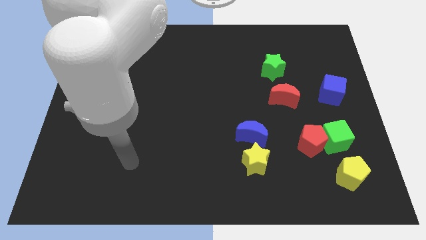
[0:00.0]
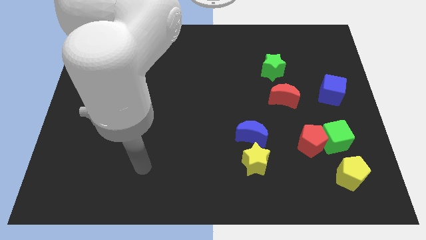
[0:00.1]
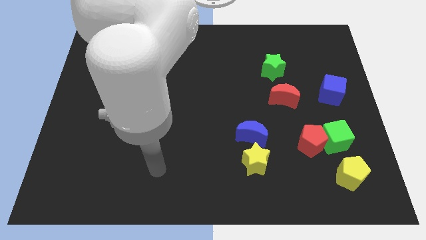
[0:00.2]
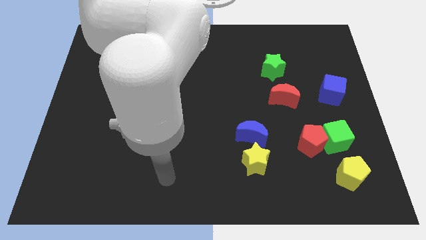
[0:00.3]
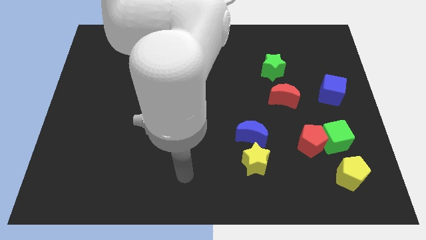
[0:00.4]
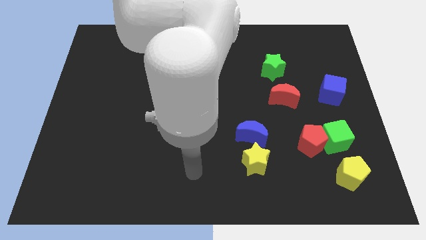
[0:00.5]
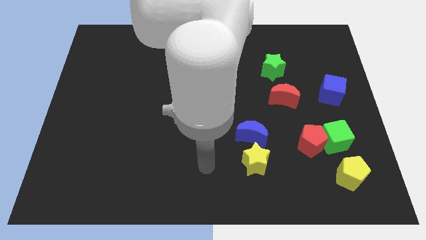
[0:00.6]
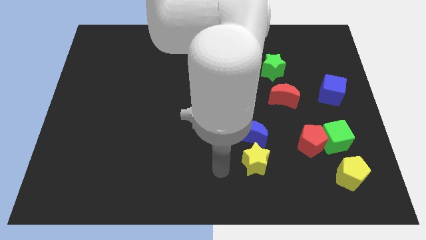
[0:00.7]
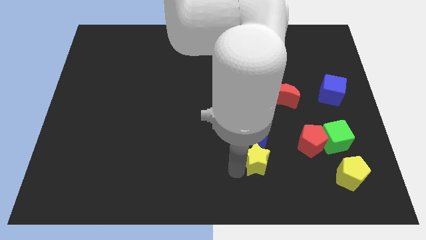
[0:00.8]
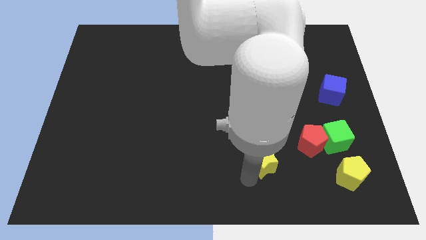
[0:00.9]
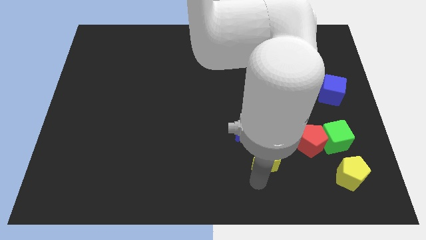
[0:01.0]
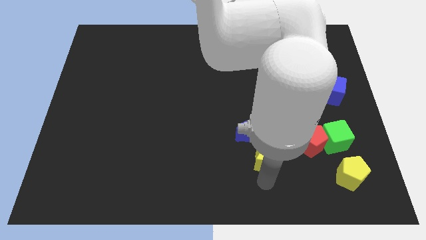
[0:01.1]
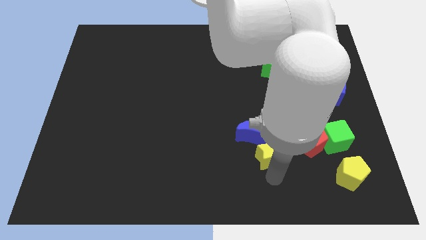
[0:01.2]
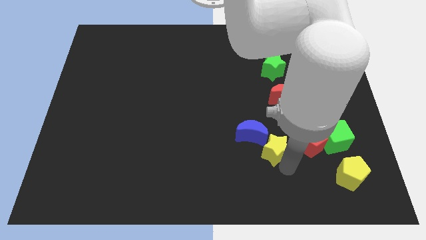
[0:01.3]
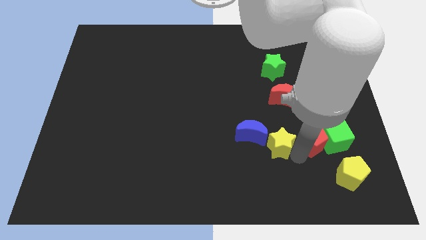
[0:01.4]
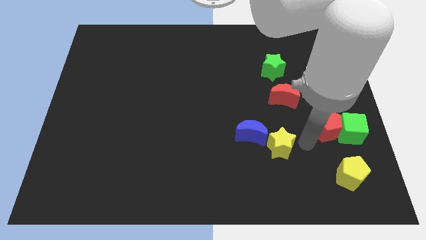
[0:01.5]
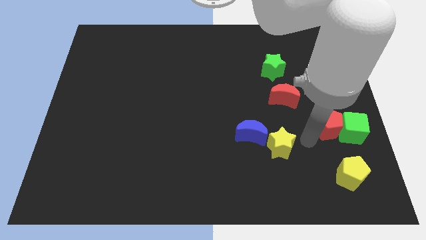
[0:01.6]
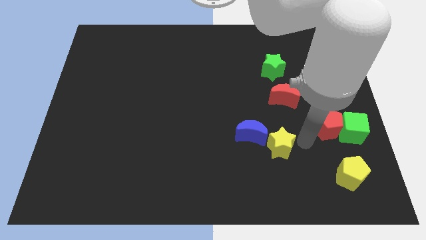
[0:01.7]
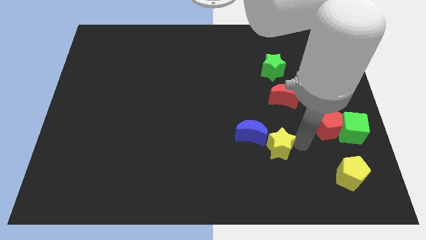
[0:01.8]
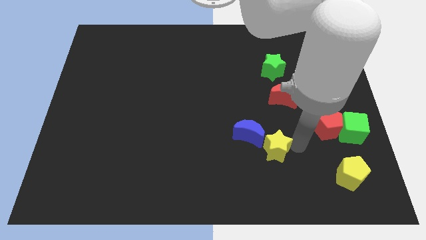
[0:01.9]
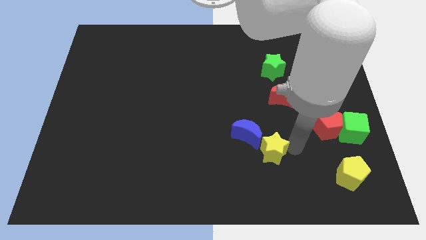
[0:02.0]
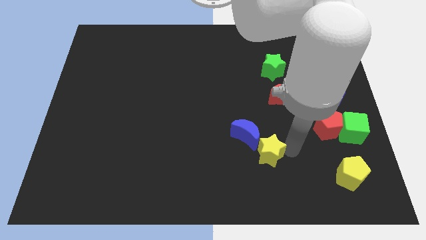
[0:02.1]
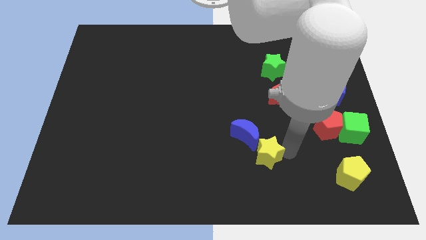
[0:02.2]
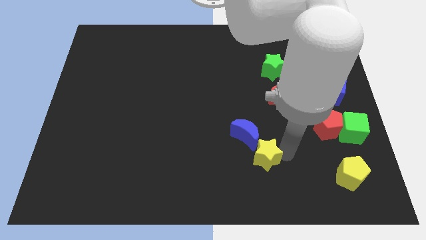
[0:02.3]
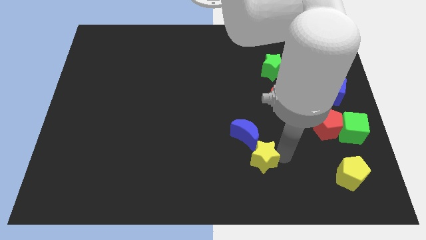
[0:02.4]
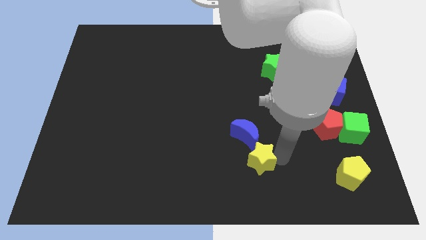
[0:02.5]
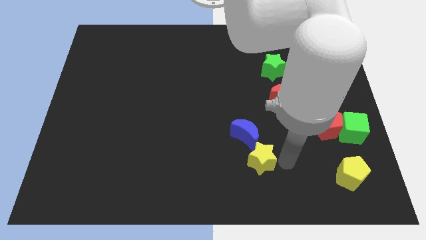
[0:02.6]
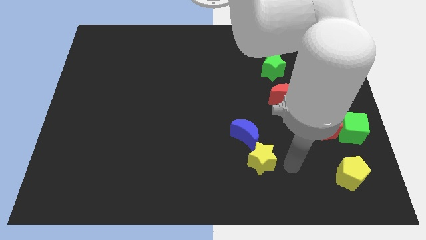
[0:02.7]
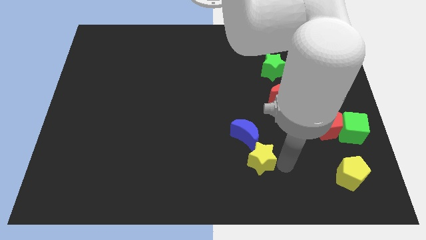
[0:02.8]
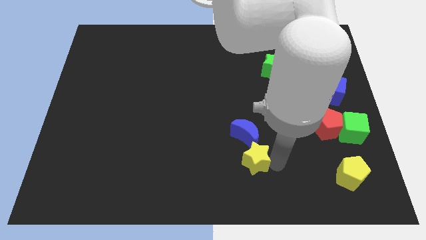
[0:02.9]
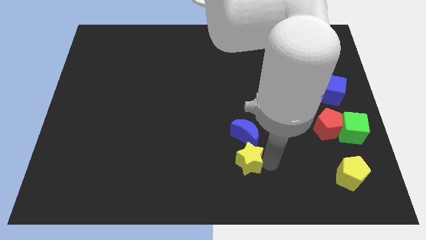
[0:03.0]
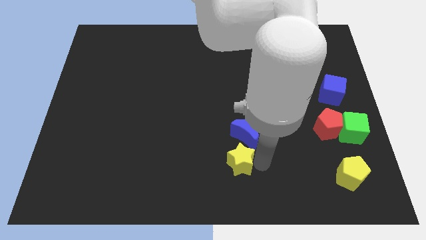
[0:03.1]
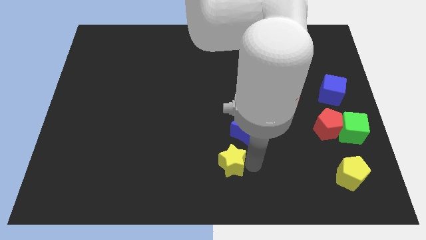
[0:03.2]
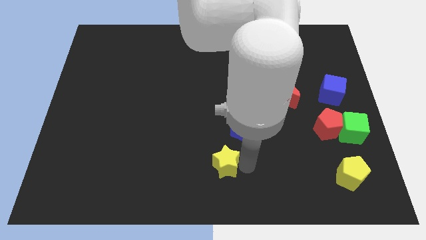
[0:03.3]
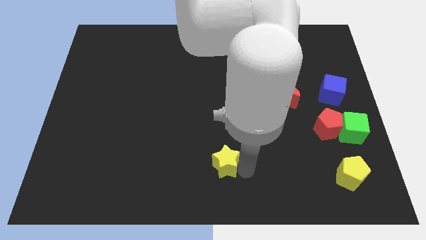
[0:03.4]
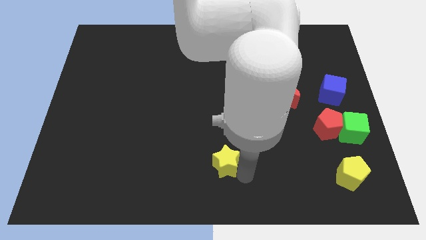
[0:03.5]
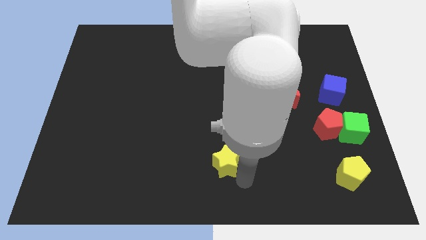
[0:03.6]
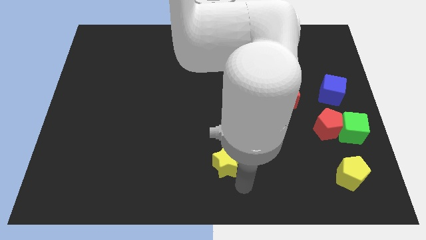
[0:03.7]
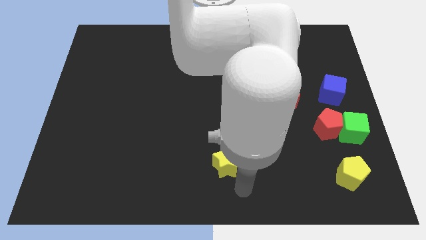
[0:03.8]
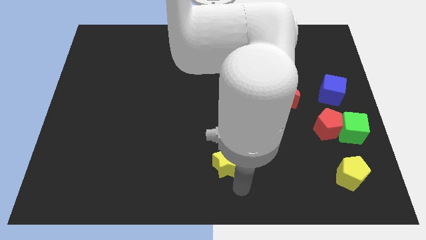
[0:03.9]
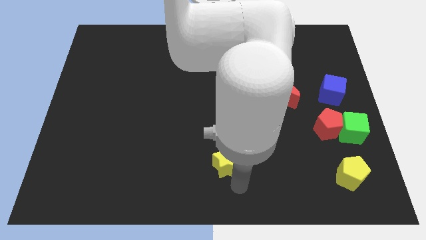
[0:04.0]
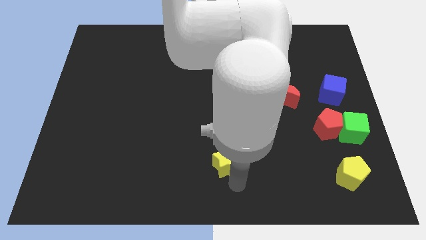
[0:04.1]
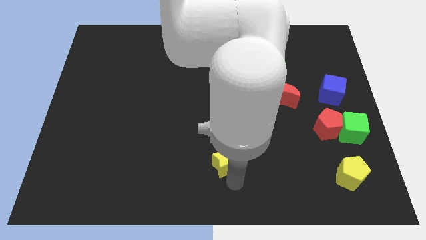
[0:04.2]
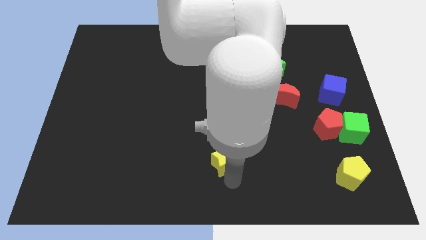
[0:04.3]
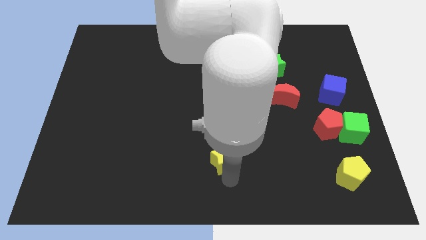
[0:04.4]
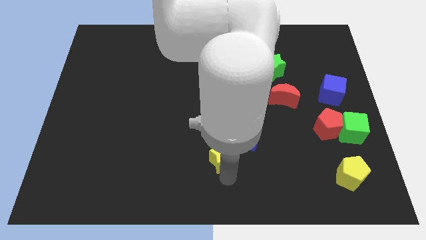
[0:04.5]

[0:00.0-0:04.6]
slide the yellow star a little to the left

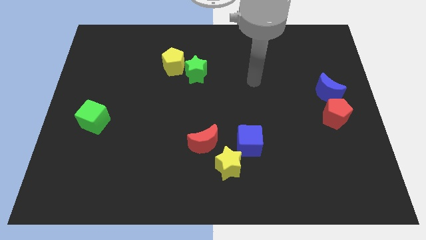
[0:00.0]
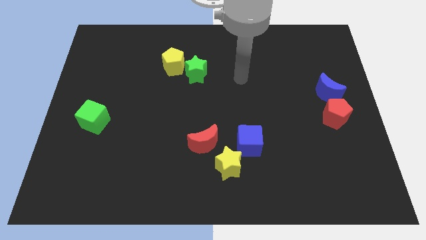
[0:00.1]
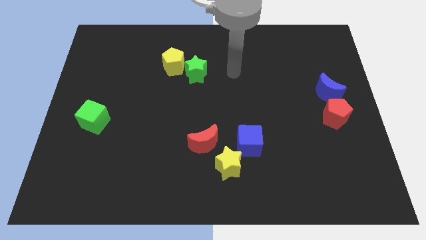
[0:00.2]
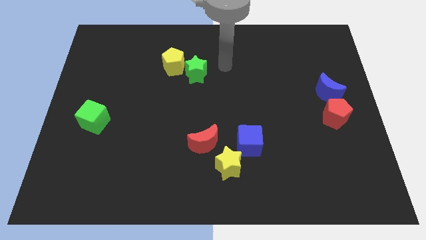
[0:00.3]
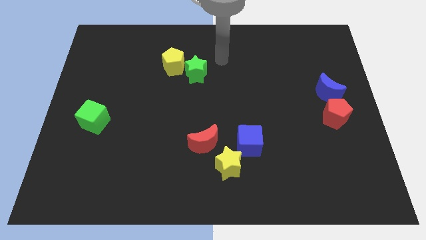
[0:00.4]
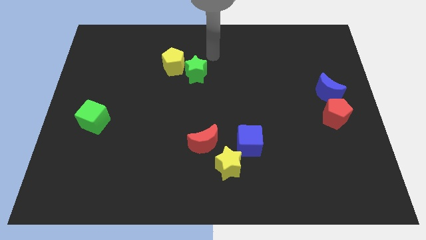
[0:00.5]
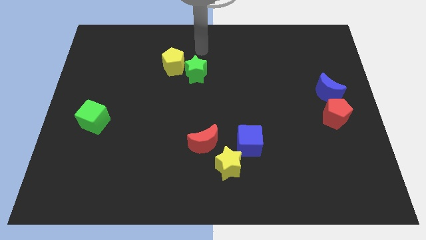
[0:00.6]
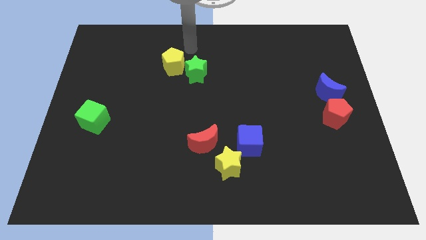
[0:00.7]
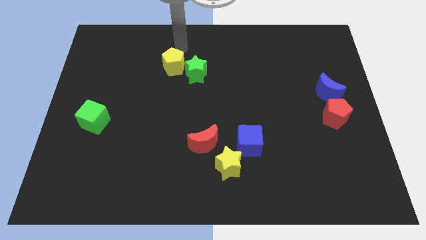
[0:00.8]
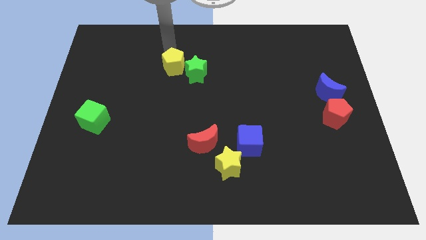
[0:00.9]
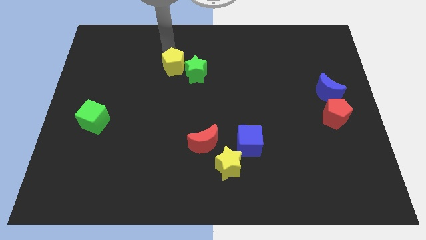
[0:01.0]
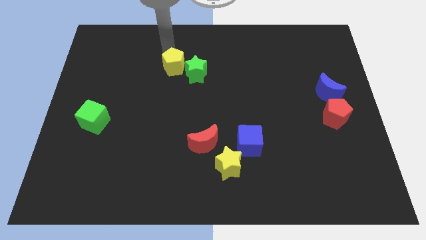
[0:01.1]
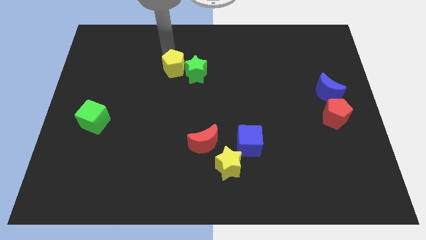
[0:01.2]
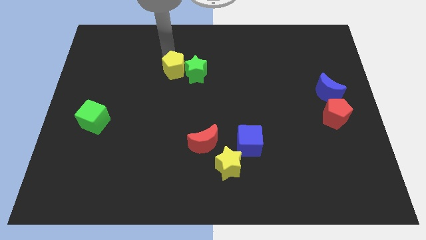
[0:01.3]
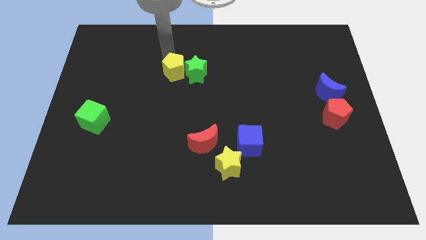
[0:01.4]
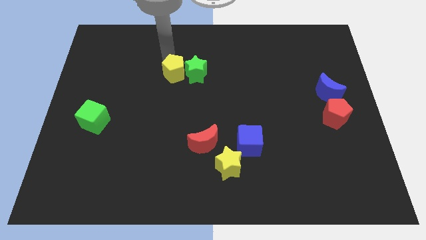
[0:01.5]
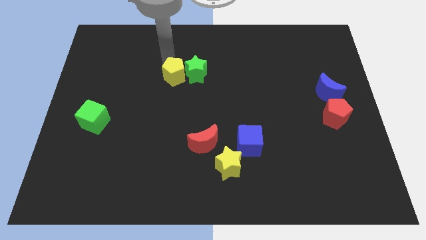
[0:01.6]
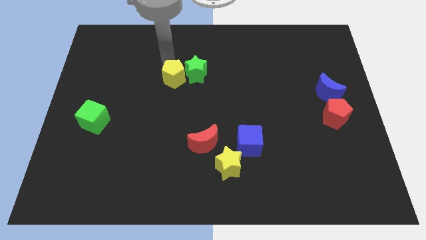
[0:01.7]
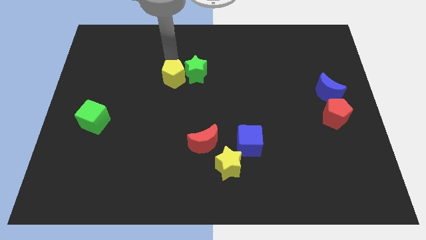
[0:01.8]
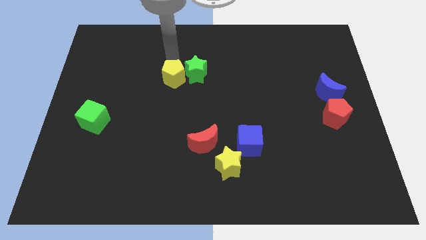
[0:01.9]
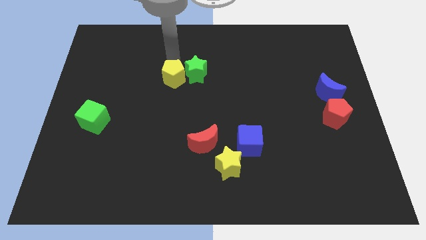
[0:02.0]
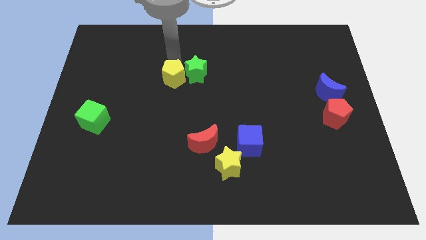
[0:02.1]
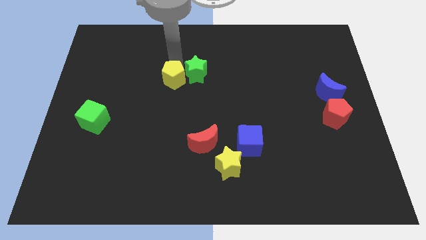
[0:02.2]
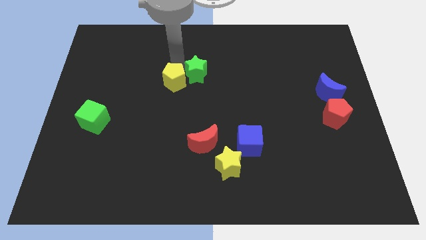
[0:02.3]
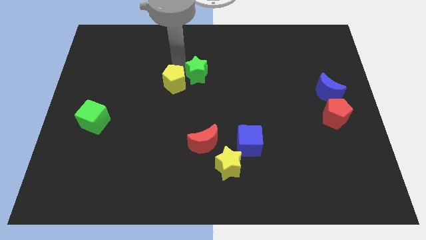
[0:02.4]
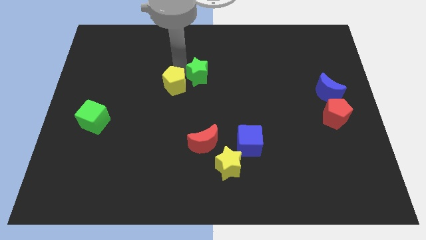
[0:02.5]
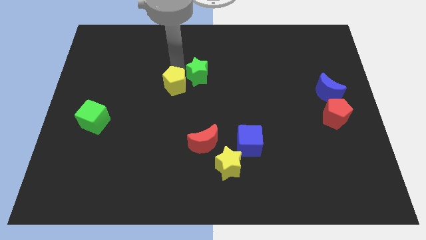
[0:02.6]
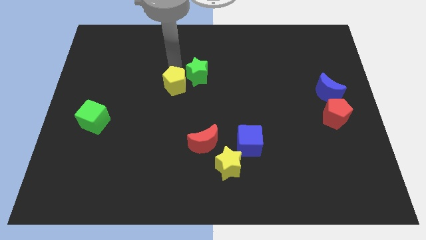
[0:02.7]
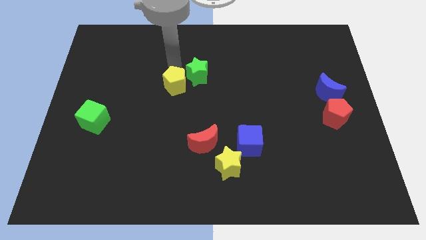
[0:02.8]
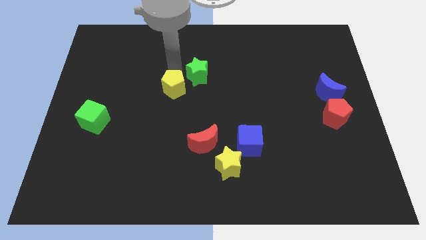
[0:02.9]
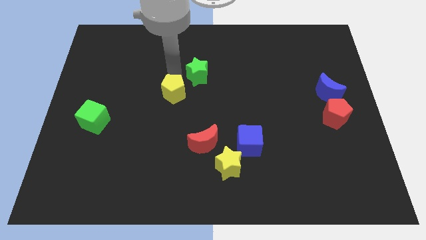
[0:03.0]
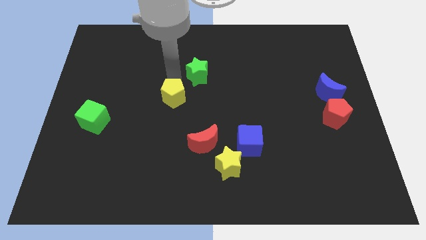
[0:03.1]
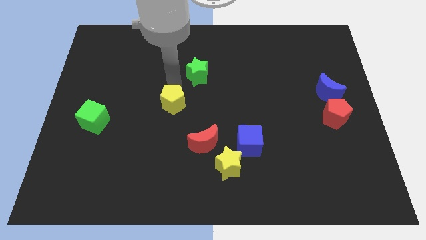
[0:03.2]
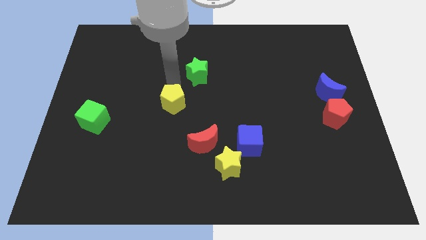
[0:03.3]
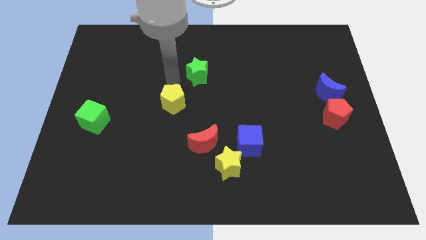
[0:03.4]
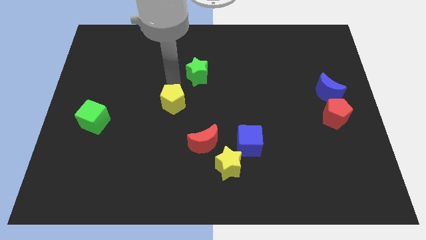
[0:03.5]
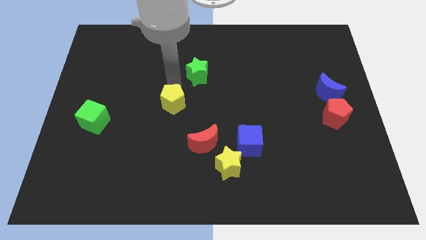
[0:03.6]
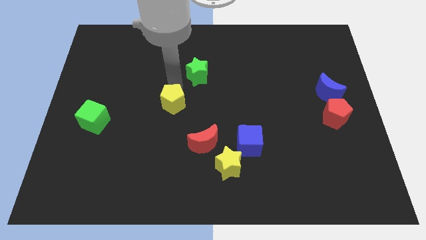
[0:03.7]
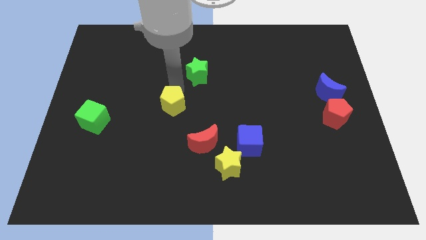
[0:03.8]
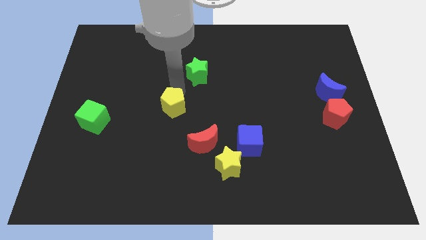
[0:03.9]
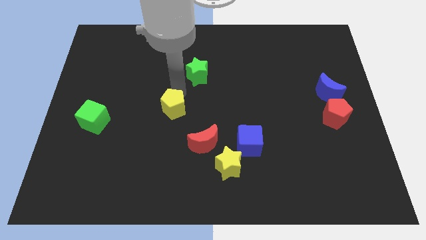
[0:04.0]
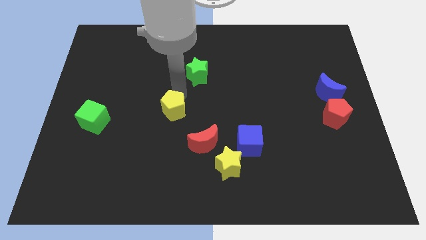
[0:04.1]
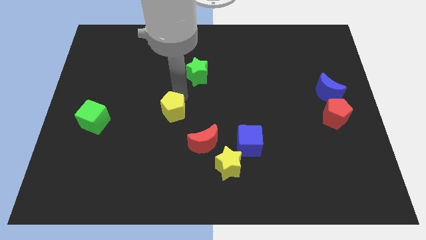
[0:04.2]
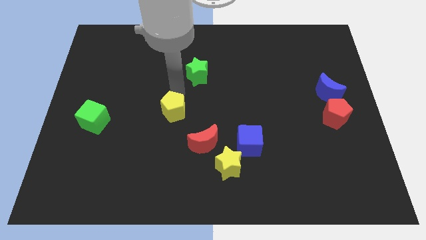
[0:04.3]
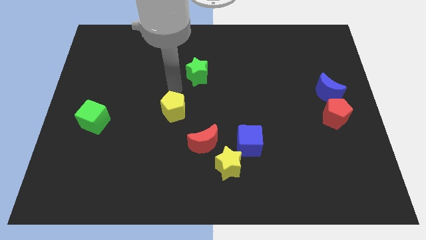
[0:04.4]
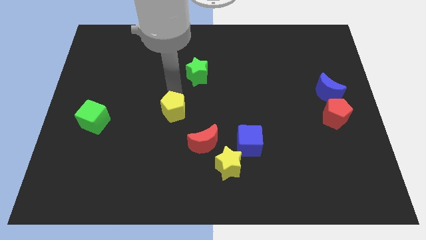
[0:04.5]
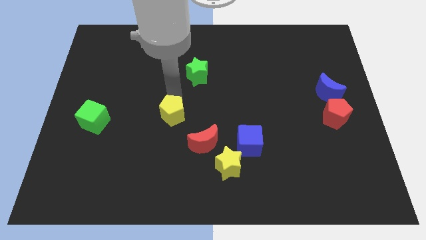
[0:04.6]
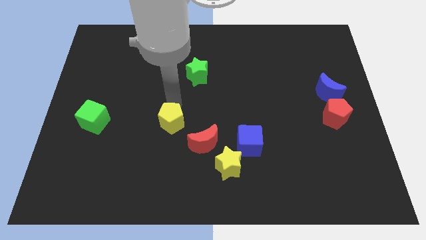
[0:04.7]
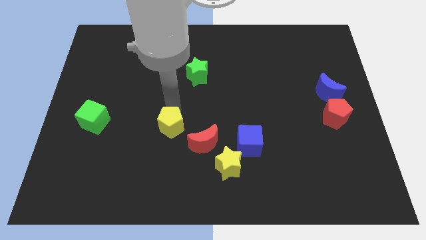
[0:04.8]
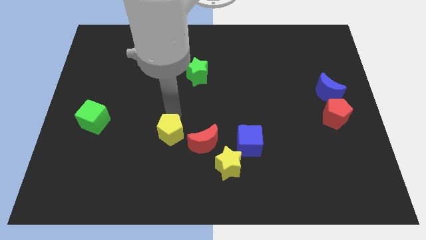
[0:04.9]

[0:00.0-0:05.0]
move the yellow pentagon down
